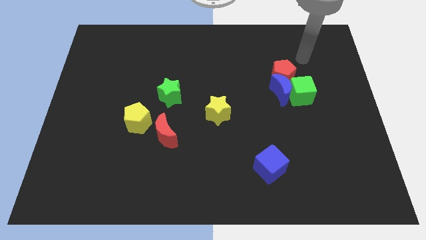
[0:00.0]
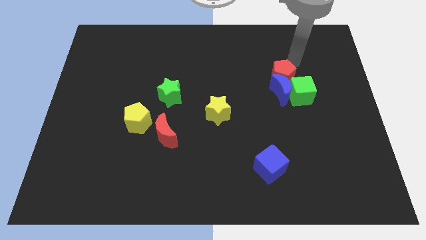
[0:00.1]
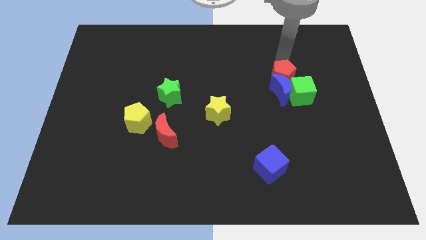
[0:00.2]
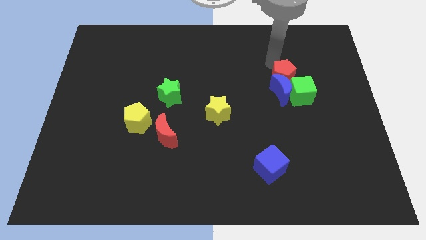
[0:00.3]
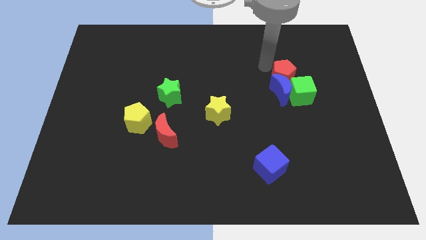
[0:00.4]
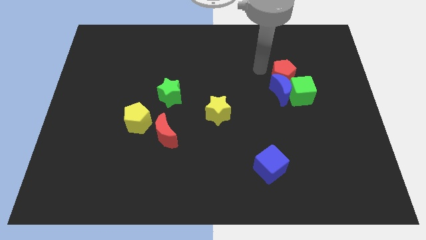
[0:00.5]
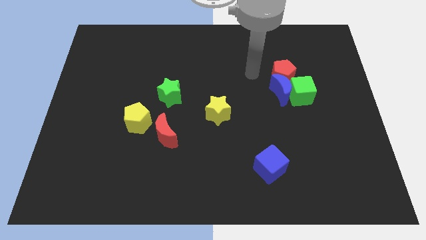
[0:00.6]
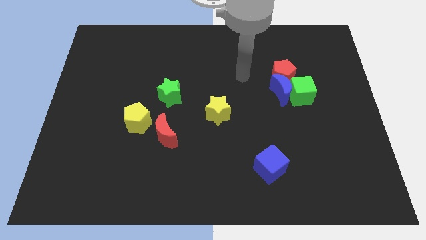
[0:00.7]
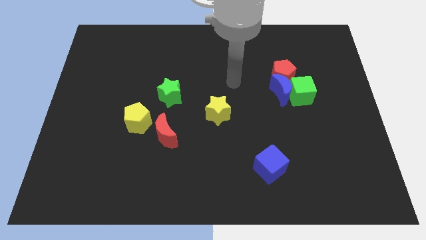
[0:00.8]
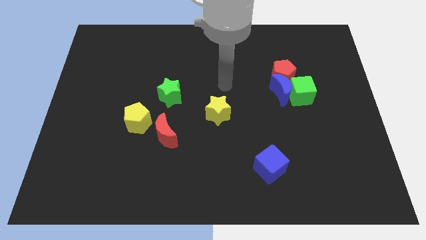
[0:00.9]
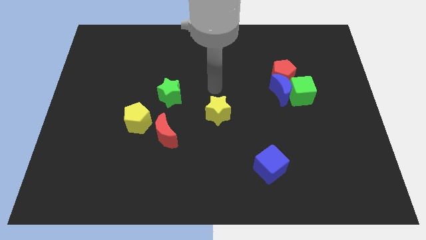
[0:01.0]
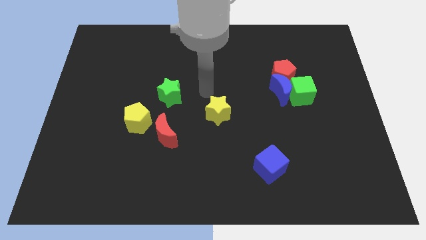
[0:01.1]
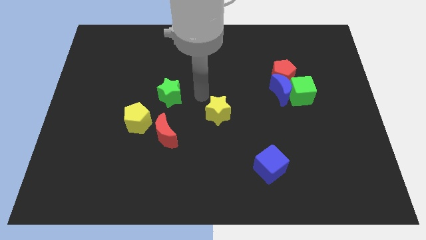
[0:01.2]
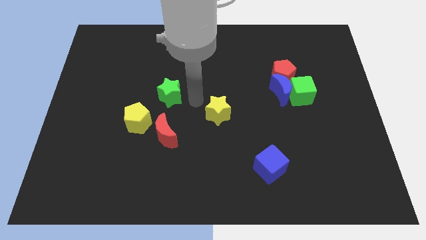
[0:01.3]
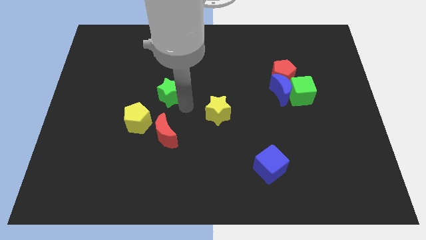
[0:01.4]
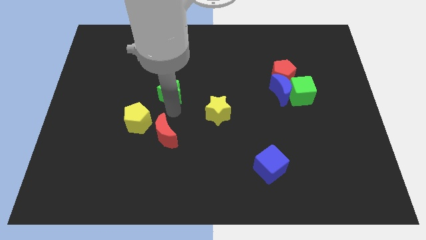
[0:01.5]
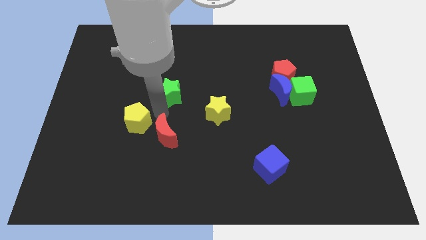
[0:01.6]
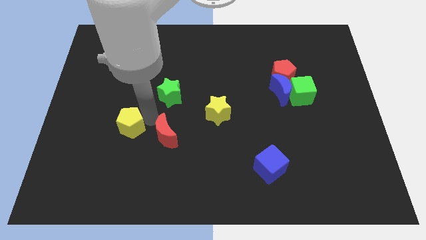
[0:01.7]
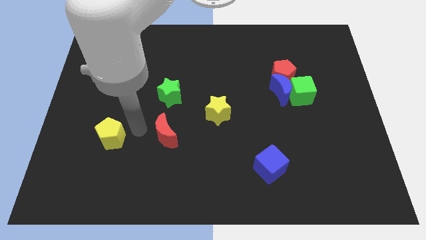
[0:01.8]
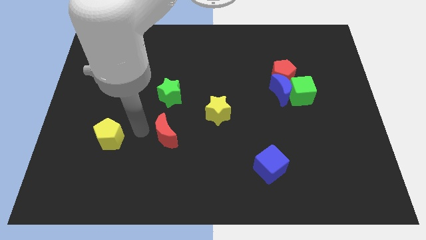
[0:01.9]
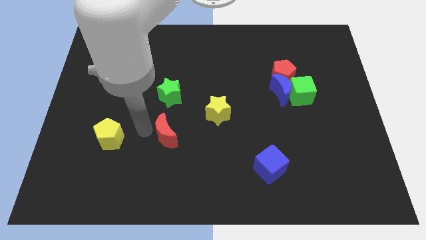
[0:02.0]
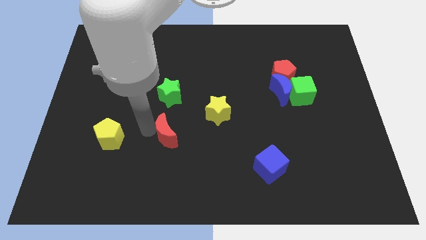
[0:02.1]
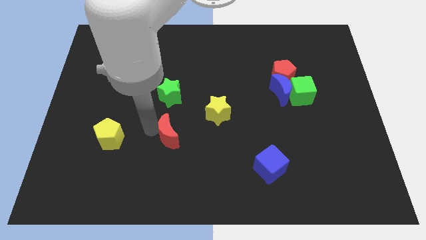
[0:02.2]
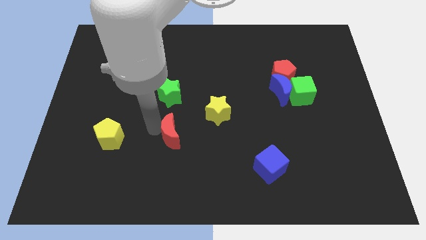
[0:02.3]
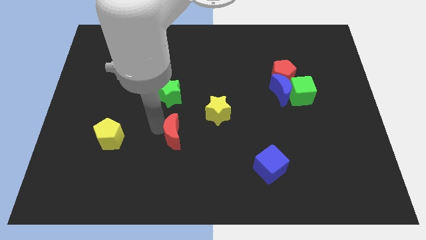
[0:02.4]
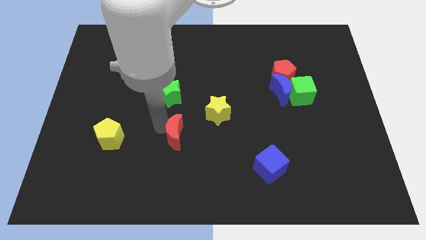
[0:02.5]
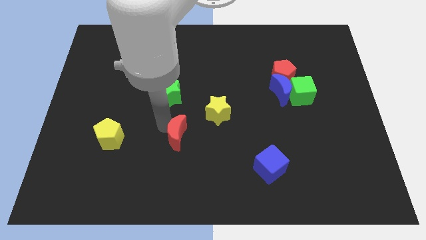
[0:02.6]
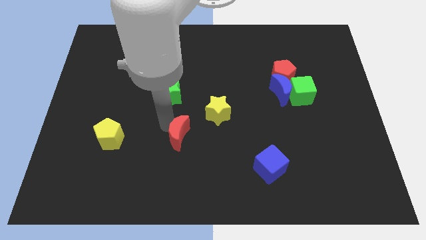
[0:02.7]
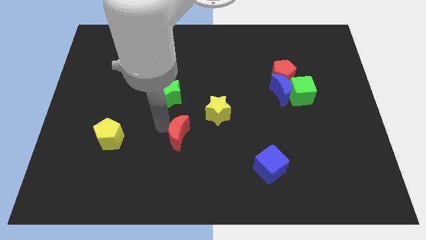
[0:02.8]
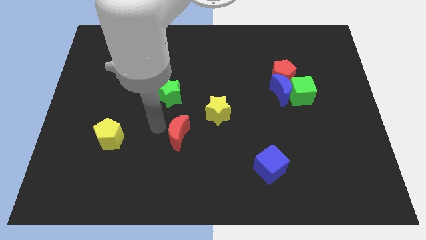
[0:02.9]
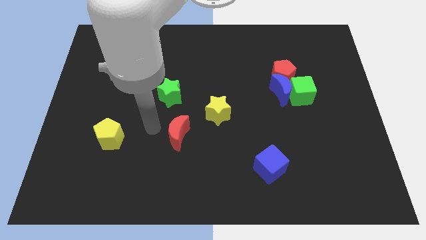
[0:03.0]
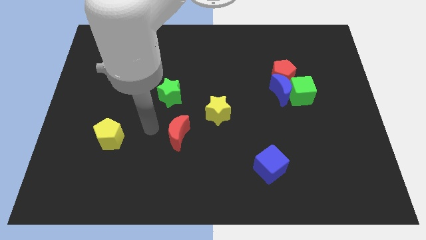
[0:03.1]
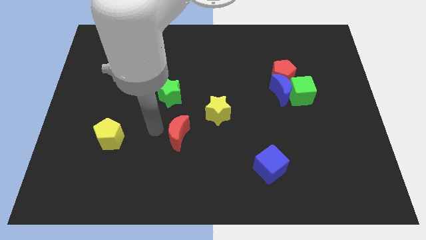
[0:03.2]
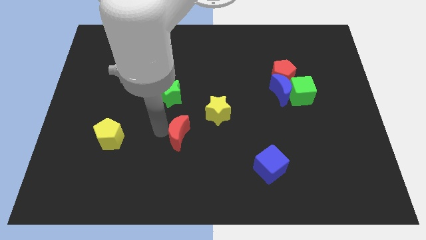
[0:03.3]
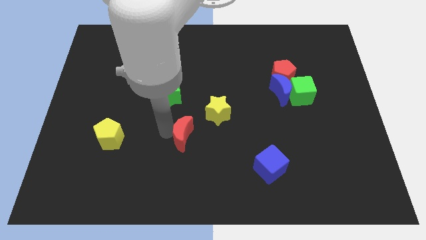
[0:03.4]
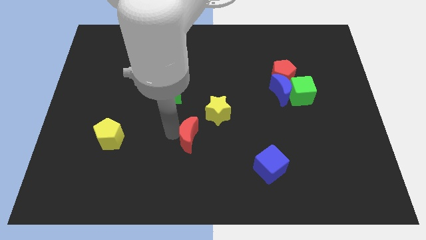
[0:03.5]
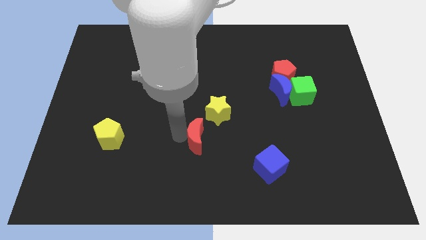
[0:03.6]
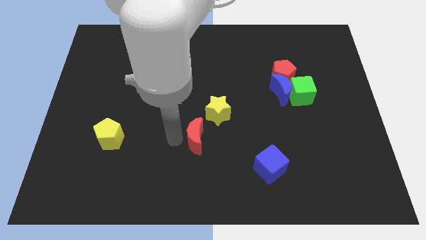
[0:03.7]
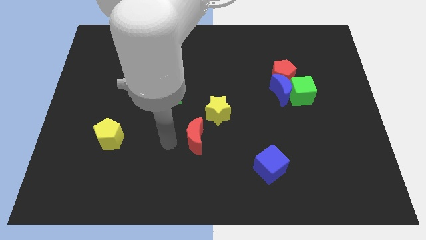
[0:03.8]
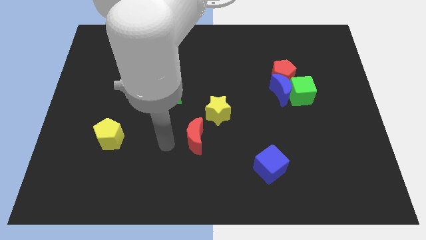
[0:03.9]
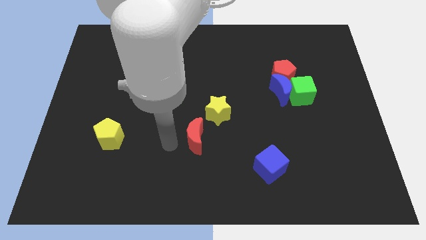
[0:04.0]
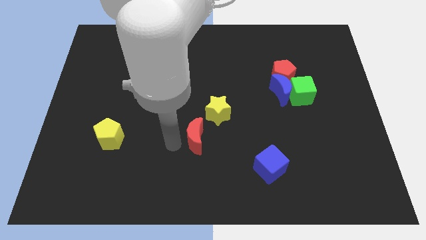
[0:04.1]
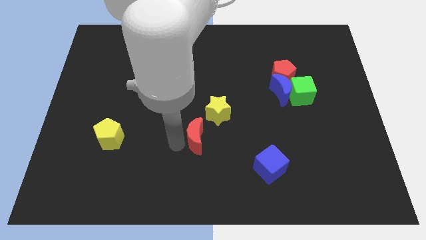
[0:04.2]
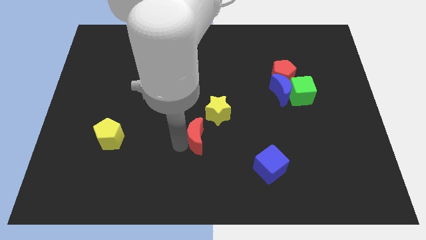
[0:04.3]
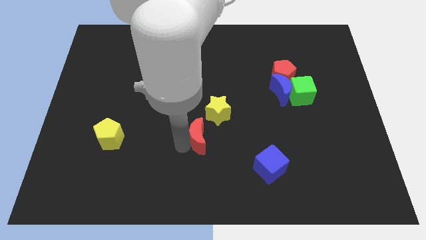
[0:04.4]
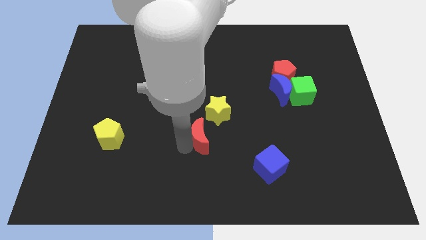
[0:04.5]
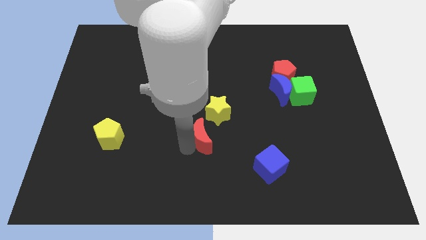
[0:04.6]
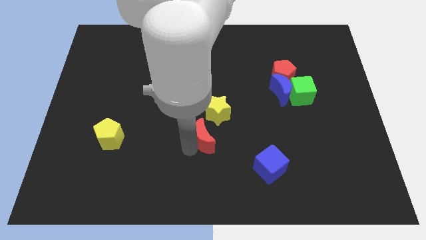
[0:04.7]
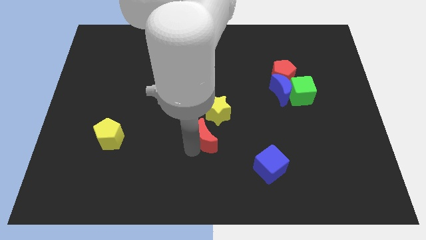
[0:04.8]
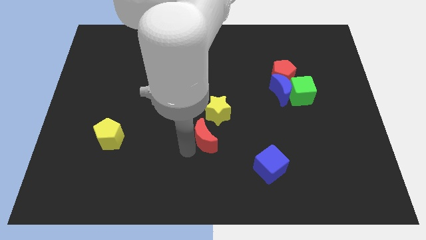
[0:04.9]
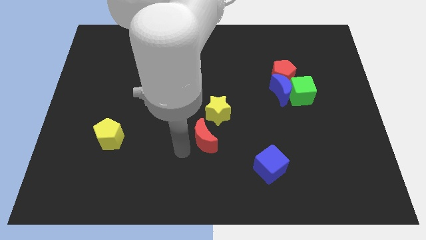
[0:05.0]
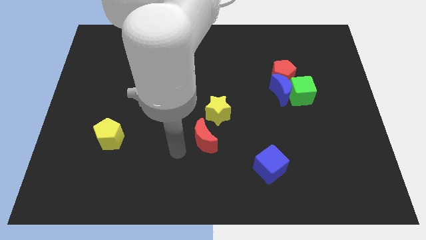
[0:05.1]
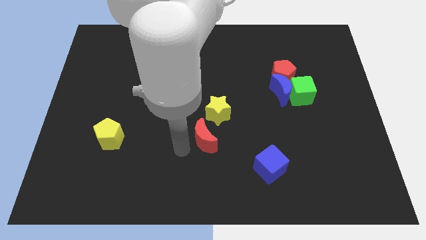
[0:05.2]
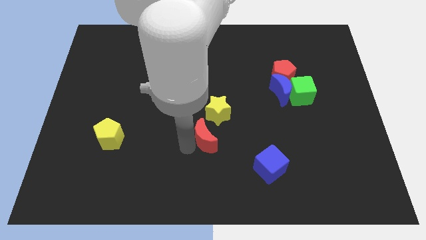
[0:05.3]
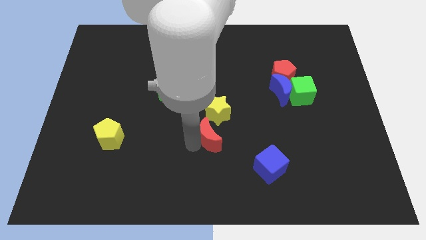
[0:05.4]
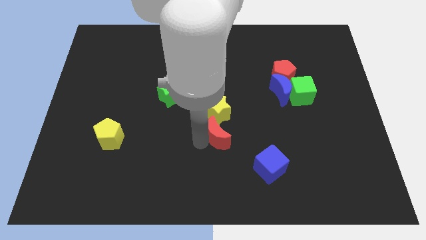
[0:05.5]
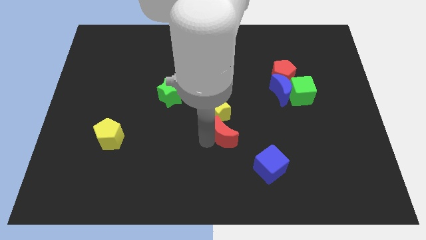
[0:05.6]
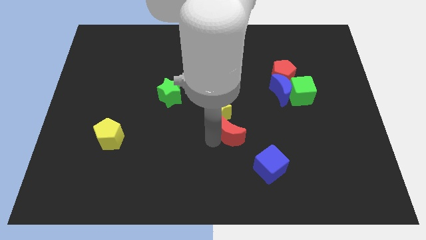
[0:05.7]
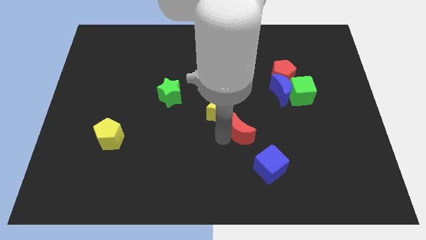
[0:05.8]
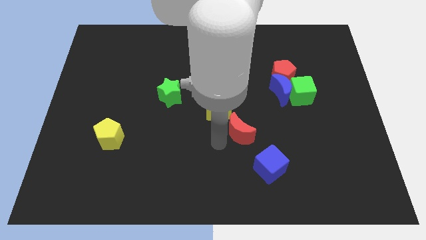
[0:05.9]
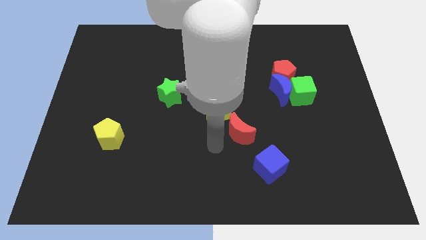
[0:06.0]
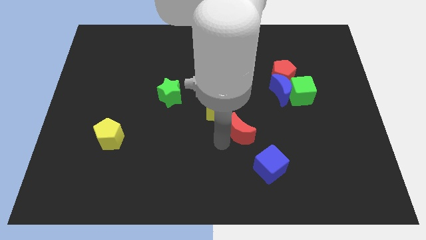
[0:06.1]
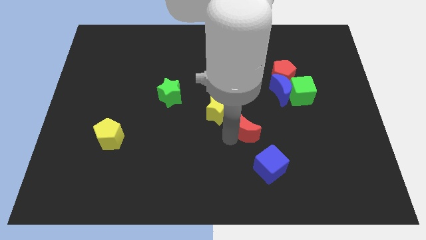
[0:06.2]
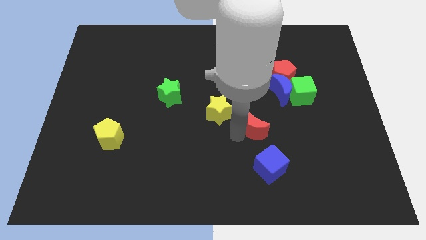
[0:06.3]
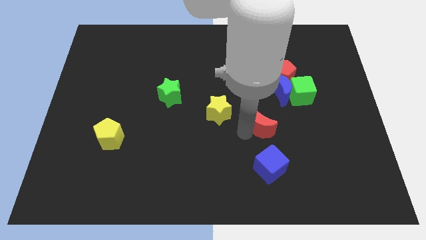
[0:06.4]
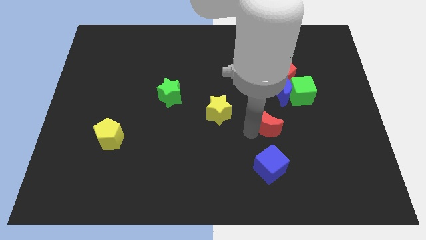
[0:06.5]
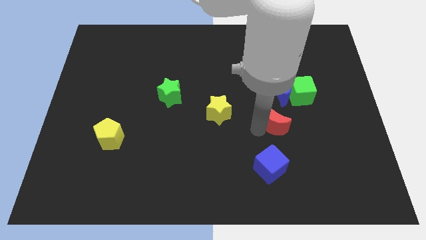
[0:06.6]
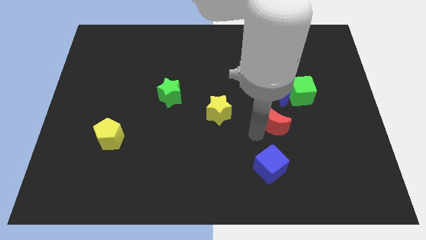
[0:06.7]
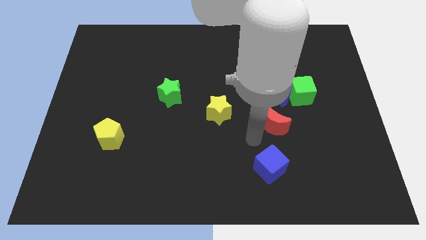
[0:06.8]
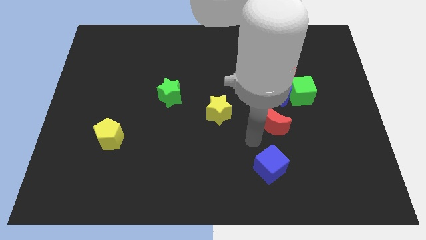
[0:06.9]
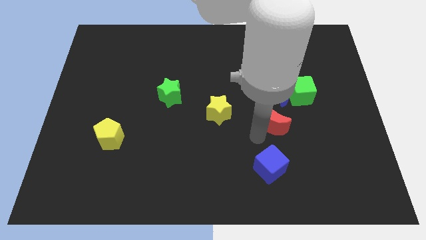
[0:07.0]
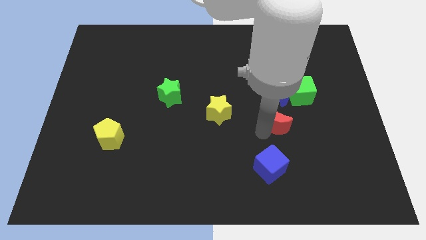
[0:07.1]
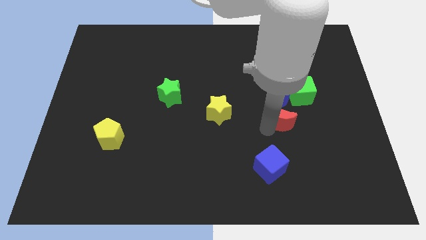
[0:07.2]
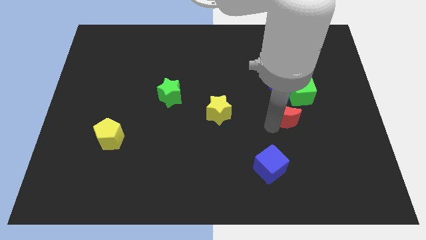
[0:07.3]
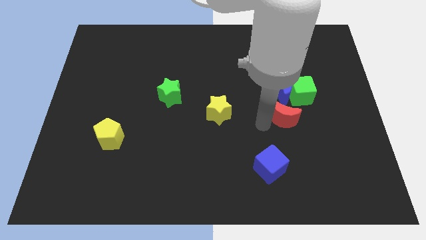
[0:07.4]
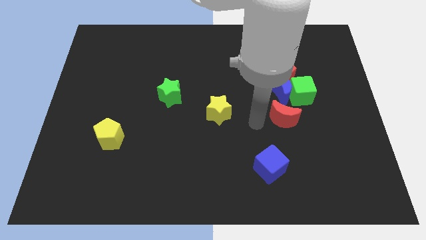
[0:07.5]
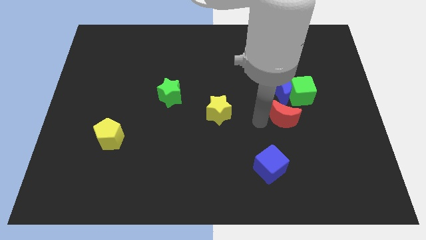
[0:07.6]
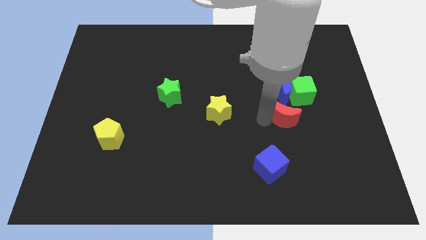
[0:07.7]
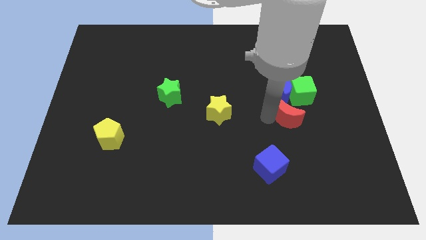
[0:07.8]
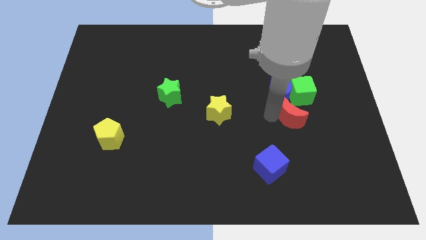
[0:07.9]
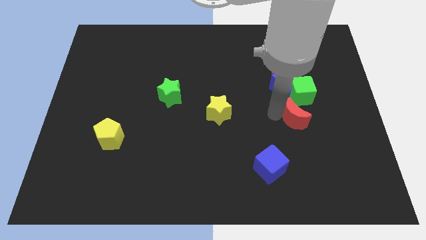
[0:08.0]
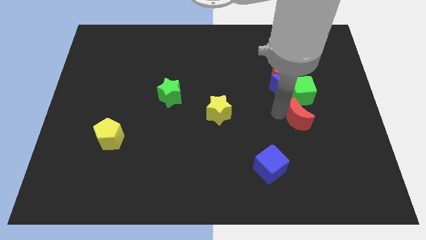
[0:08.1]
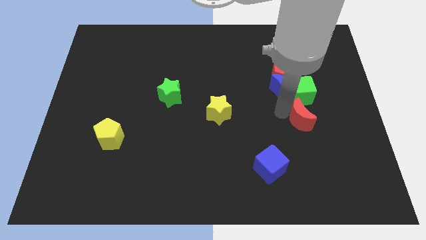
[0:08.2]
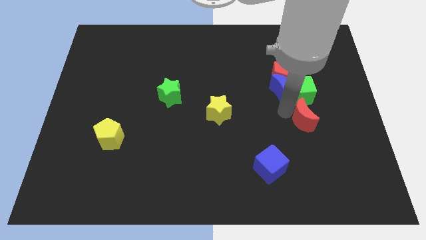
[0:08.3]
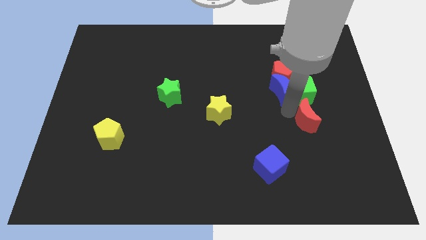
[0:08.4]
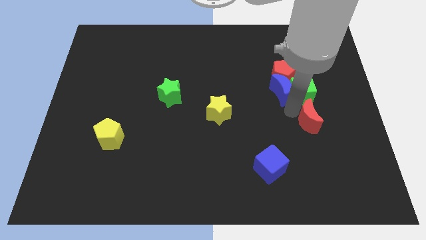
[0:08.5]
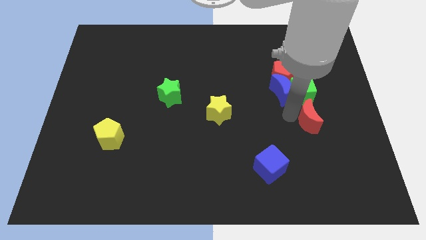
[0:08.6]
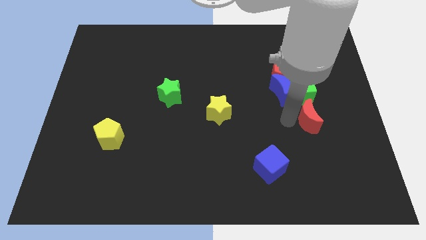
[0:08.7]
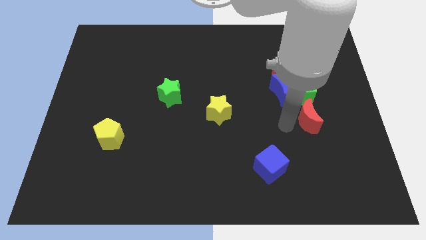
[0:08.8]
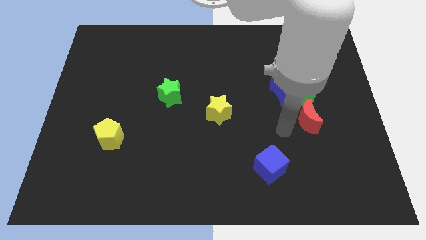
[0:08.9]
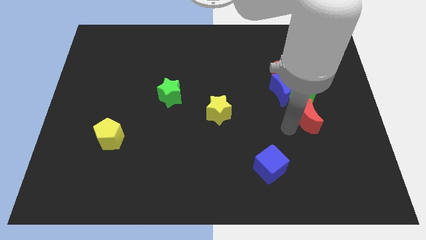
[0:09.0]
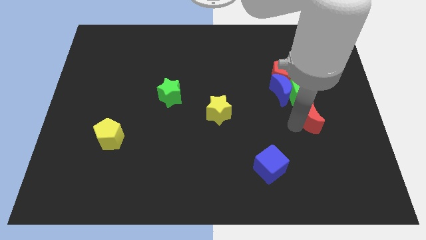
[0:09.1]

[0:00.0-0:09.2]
slide the red moon to the bottom right side of the green cube
